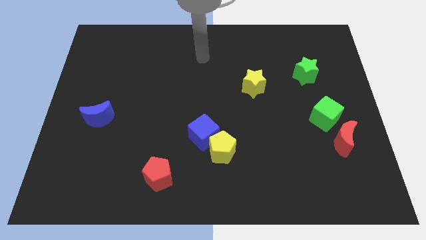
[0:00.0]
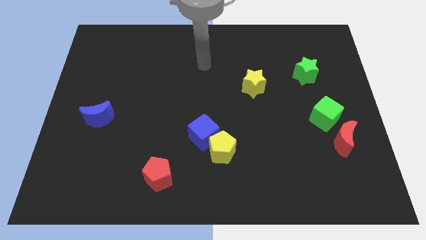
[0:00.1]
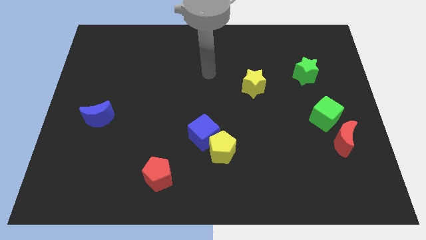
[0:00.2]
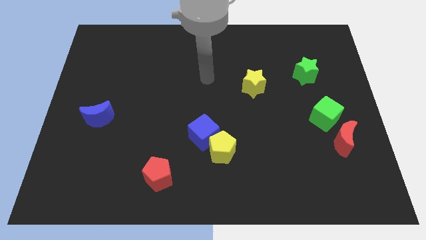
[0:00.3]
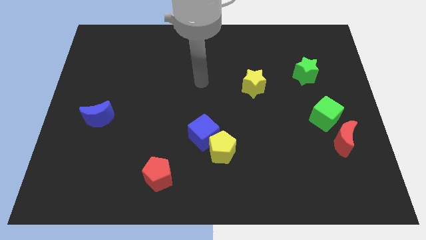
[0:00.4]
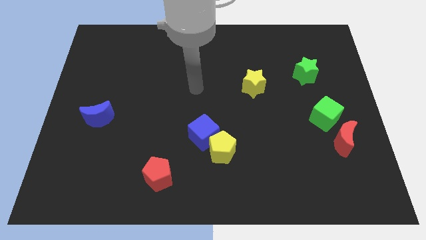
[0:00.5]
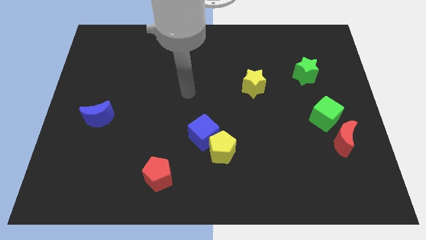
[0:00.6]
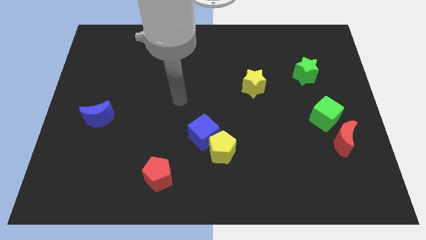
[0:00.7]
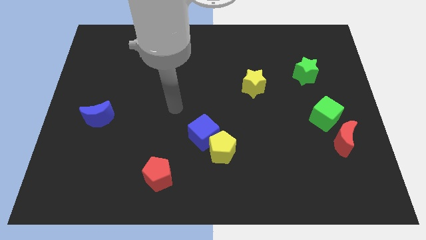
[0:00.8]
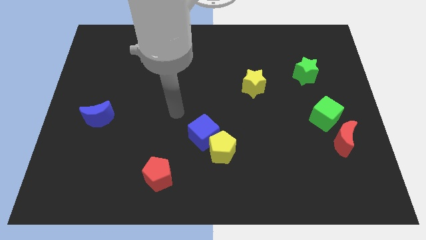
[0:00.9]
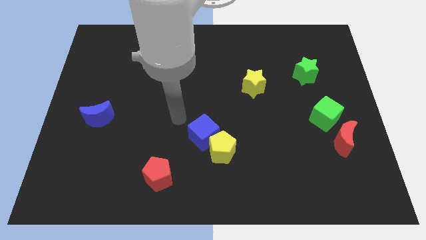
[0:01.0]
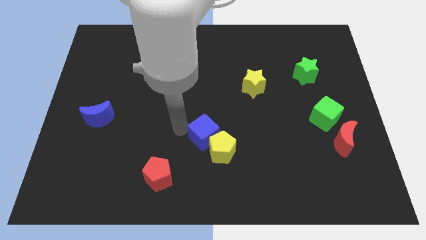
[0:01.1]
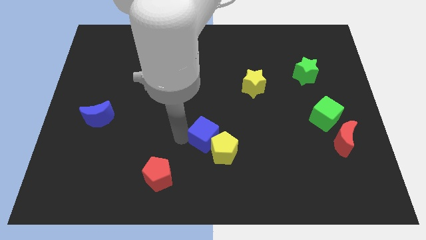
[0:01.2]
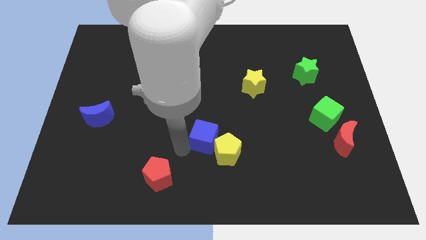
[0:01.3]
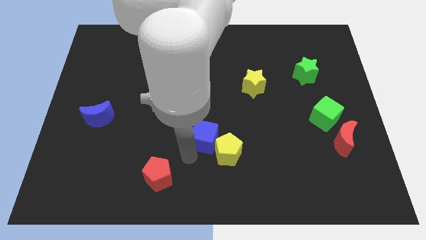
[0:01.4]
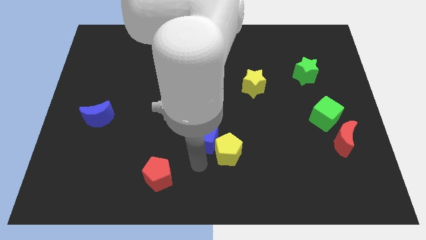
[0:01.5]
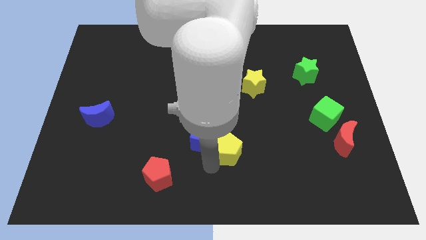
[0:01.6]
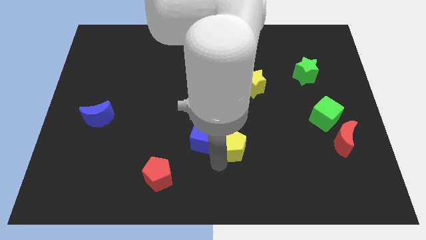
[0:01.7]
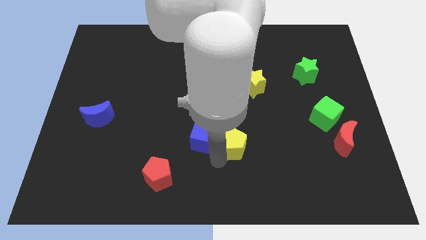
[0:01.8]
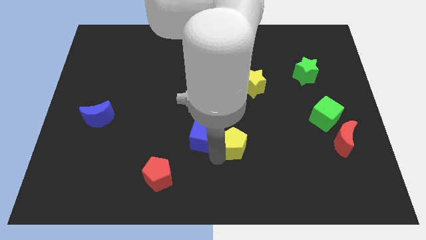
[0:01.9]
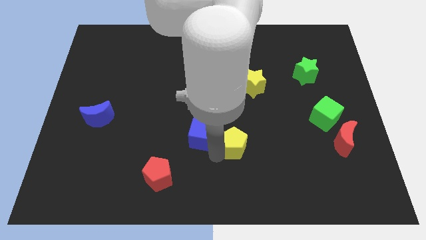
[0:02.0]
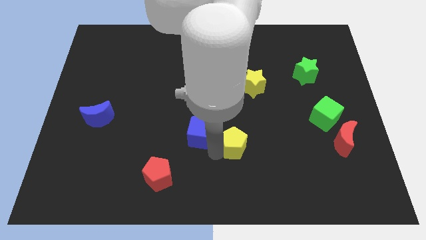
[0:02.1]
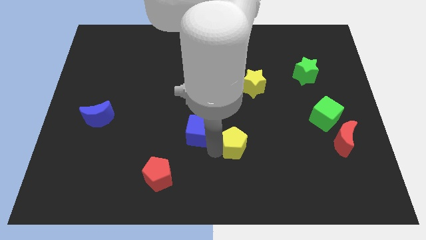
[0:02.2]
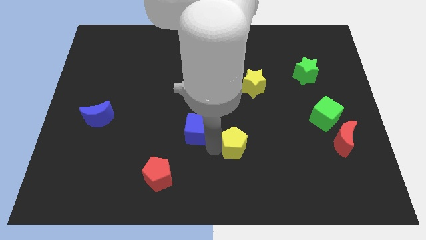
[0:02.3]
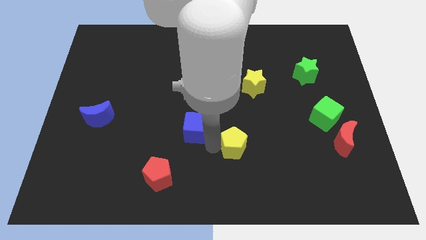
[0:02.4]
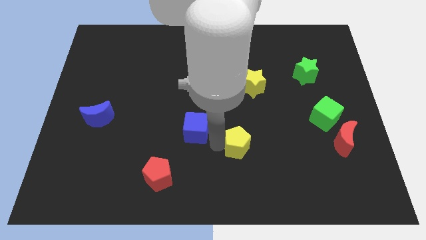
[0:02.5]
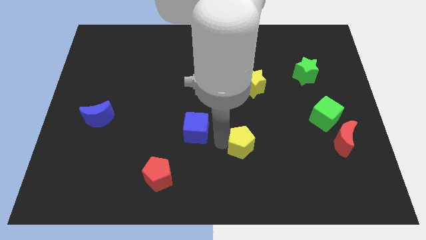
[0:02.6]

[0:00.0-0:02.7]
move the blue cube away from the yellow pentagon

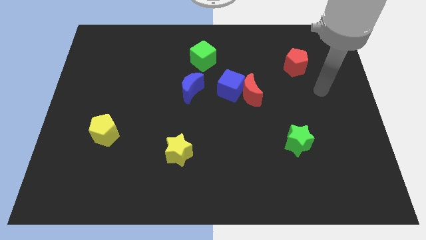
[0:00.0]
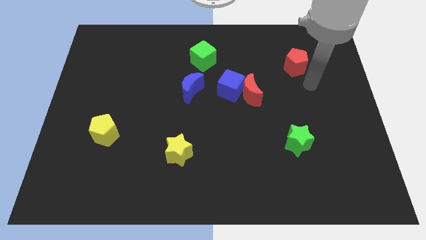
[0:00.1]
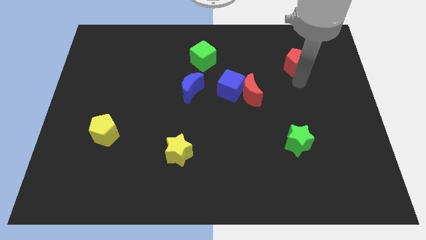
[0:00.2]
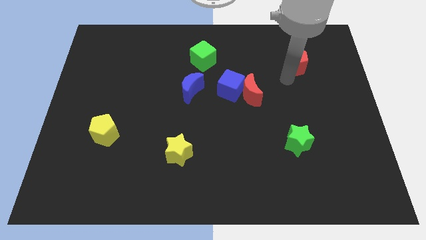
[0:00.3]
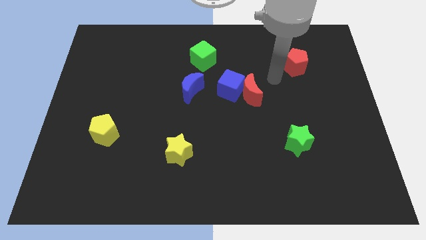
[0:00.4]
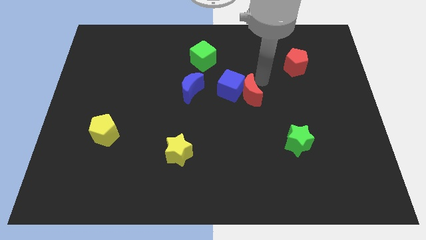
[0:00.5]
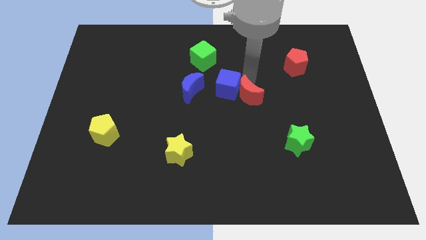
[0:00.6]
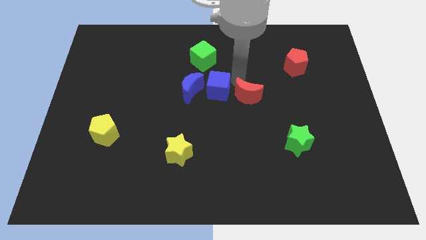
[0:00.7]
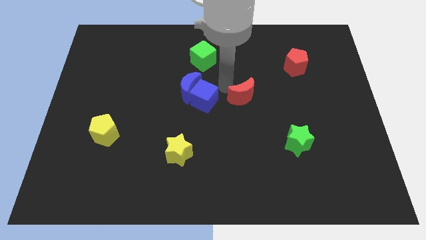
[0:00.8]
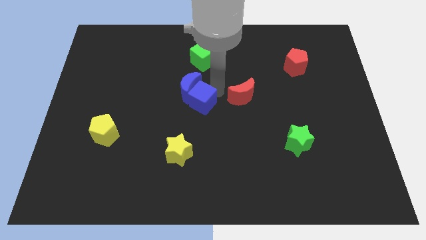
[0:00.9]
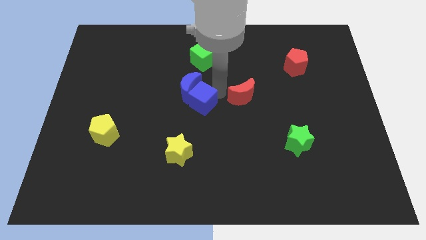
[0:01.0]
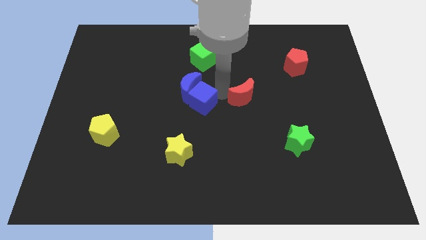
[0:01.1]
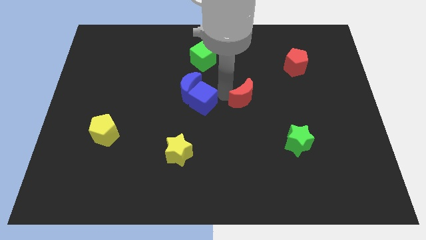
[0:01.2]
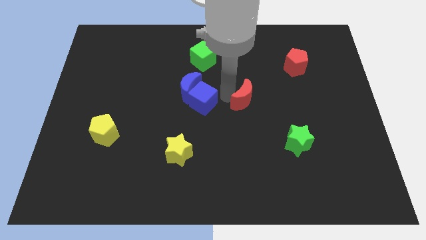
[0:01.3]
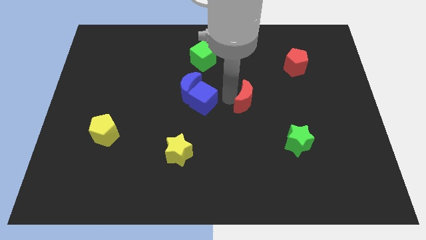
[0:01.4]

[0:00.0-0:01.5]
separate the red moon from the blue cube

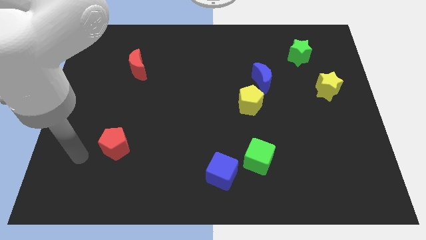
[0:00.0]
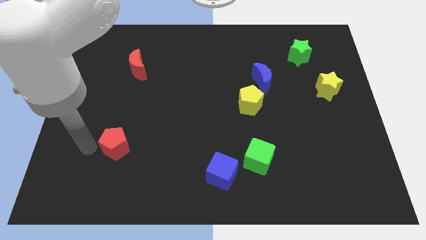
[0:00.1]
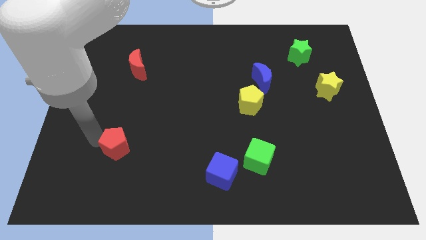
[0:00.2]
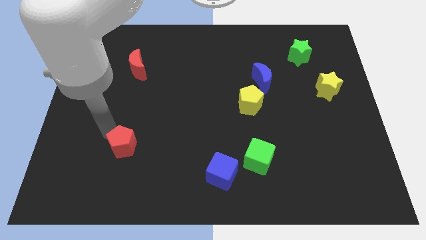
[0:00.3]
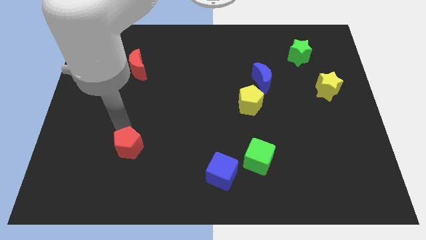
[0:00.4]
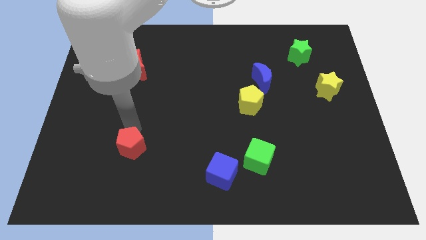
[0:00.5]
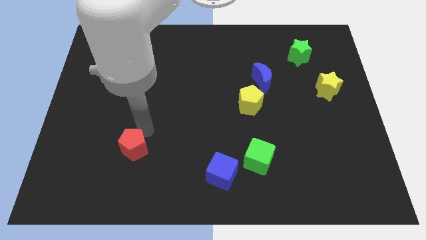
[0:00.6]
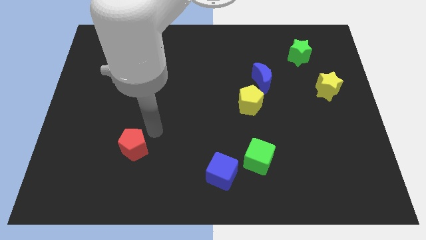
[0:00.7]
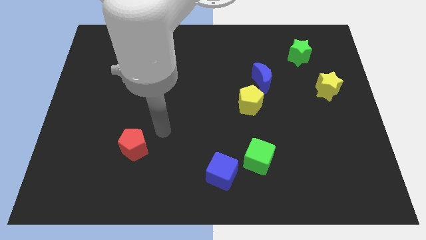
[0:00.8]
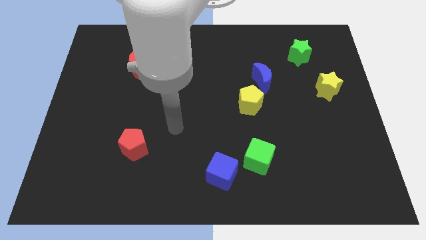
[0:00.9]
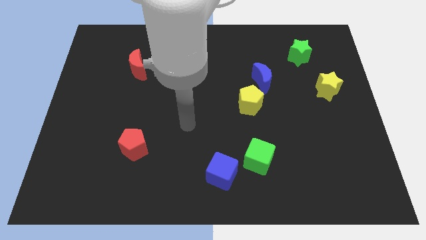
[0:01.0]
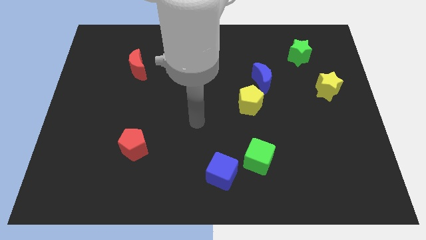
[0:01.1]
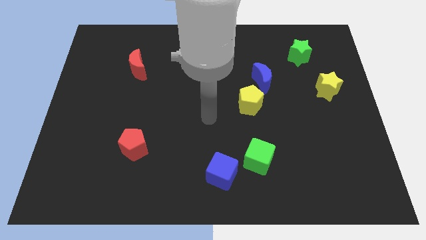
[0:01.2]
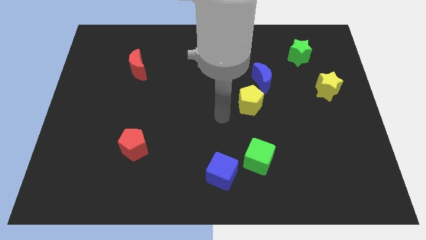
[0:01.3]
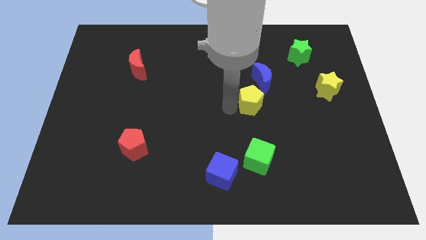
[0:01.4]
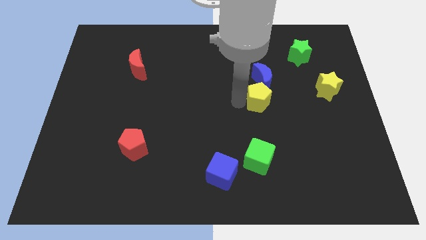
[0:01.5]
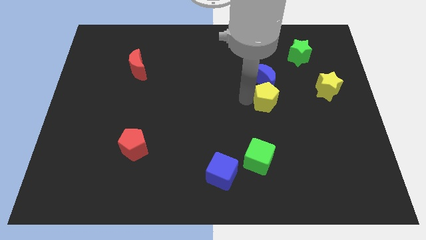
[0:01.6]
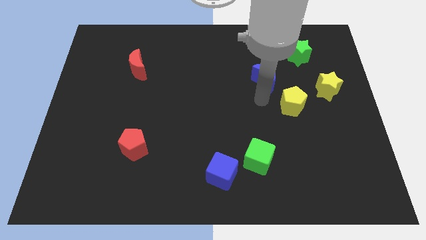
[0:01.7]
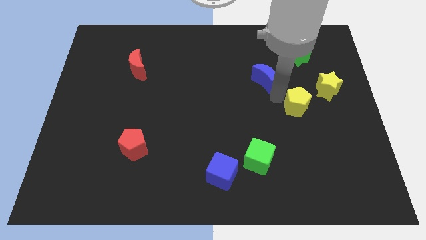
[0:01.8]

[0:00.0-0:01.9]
pull the blue moon apart from the yellow pentagon

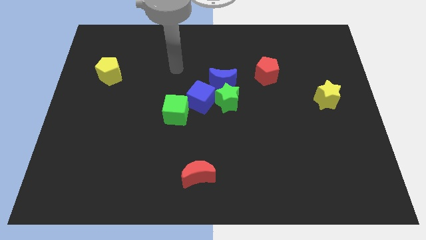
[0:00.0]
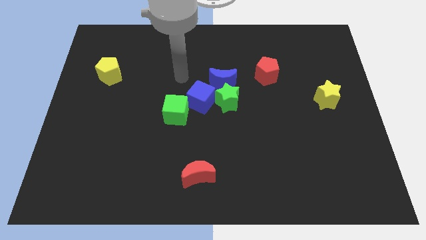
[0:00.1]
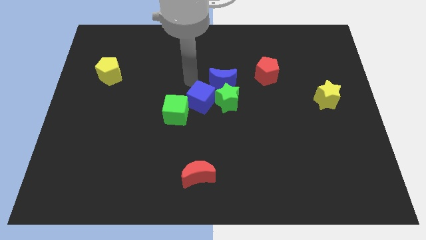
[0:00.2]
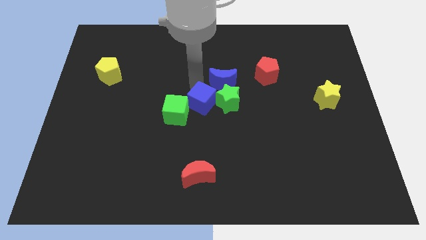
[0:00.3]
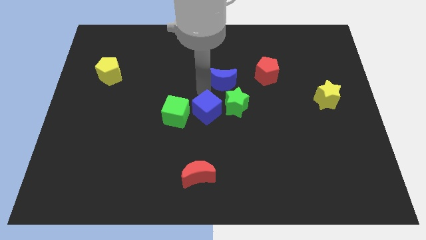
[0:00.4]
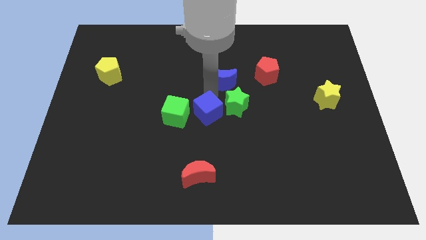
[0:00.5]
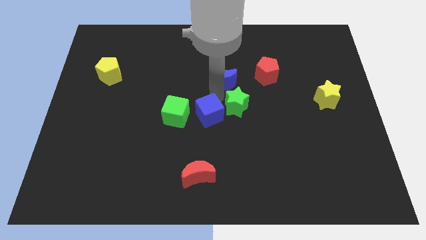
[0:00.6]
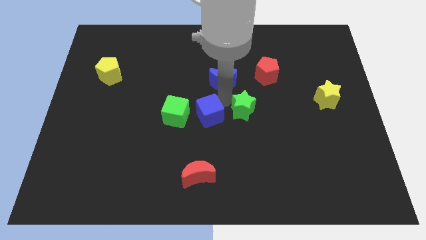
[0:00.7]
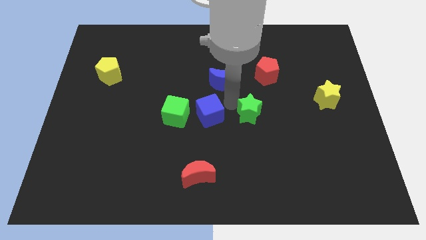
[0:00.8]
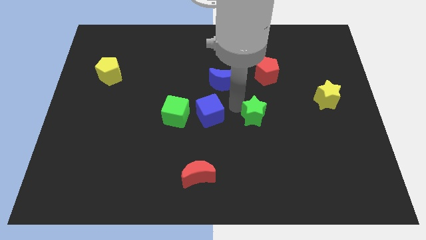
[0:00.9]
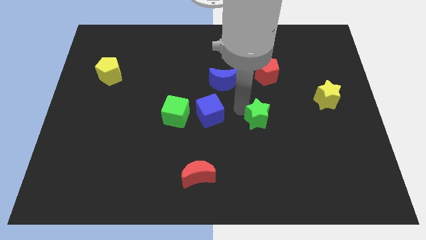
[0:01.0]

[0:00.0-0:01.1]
pull the green star apart from the blue moon and blue cube

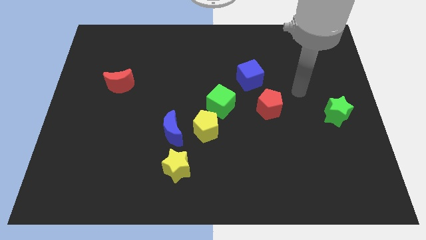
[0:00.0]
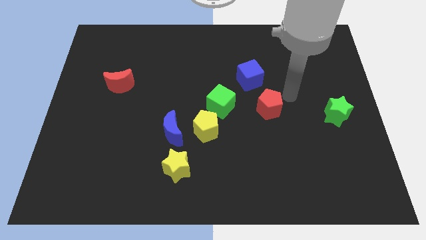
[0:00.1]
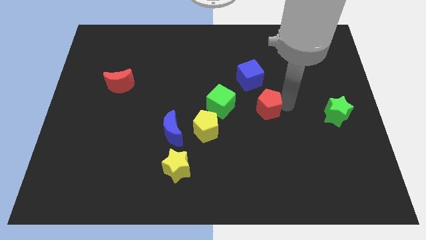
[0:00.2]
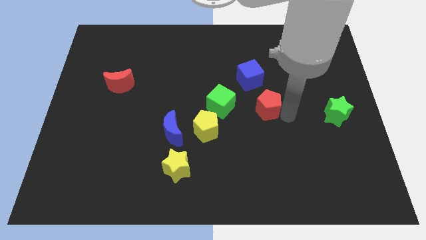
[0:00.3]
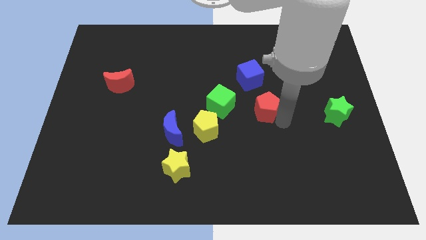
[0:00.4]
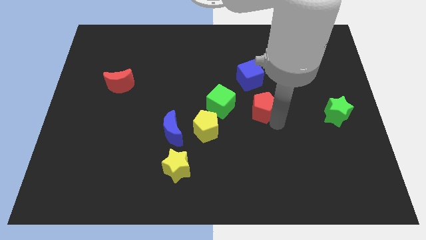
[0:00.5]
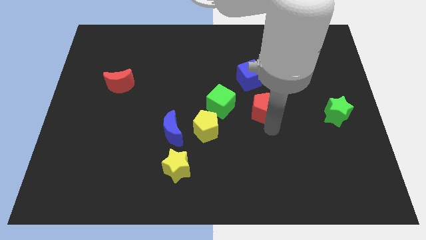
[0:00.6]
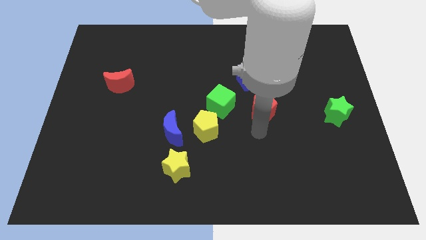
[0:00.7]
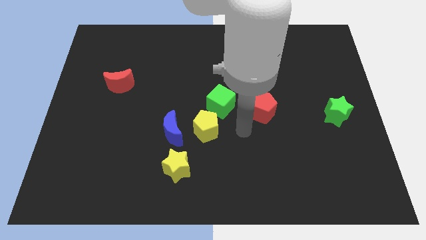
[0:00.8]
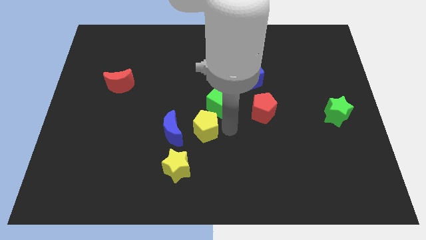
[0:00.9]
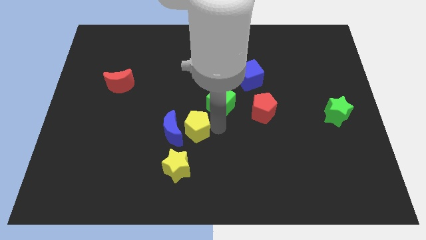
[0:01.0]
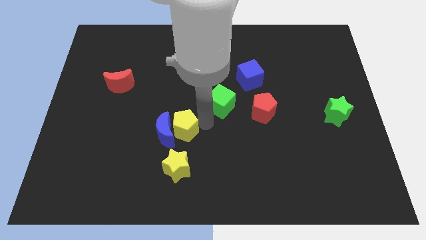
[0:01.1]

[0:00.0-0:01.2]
pull the green cube apart from the yellow pentagon

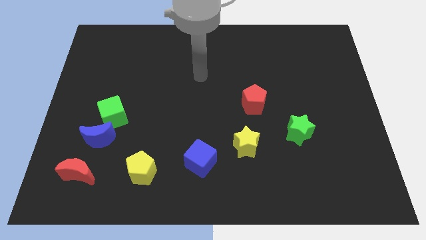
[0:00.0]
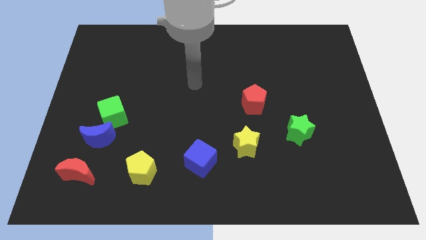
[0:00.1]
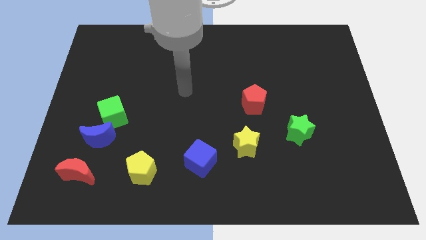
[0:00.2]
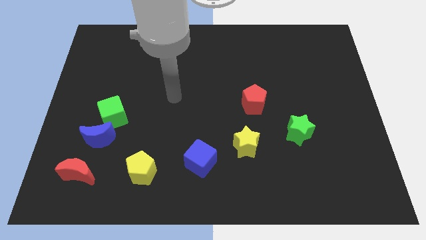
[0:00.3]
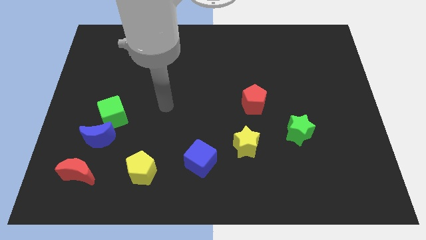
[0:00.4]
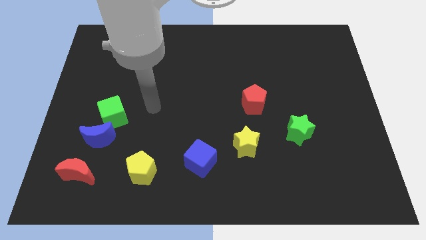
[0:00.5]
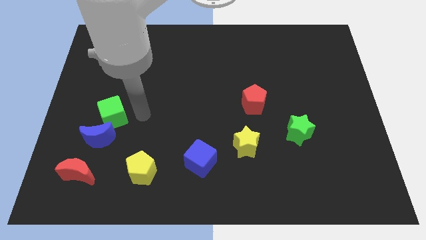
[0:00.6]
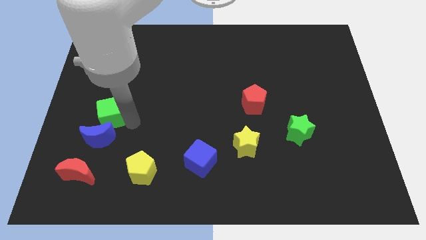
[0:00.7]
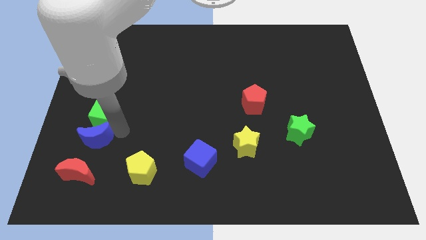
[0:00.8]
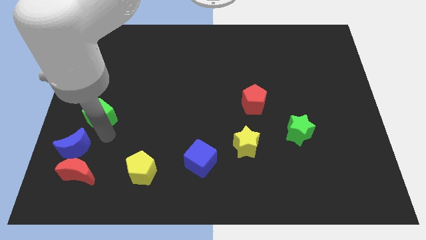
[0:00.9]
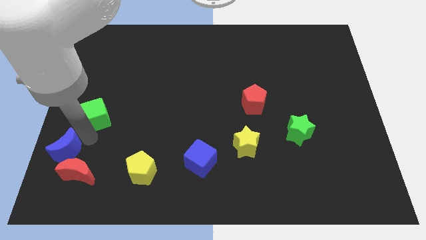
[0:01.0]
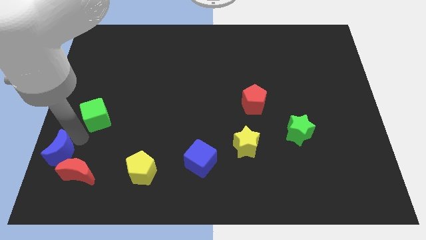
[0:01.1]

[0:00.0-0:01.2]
pull the green cube apart from the blue moon
